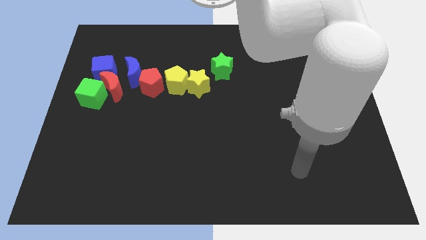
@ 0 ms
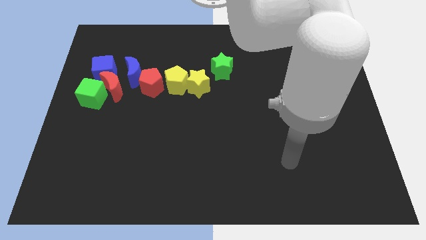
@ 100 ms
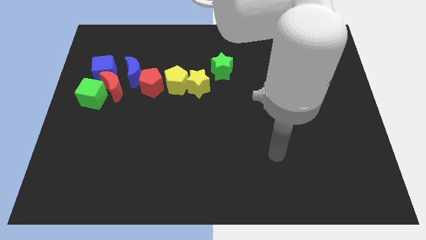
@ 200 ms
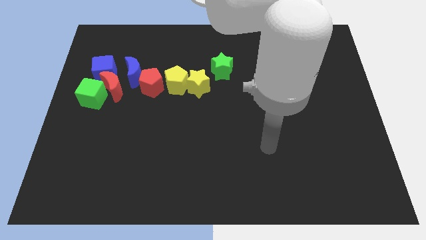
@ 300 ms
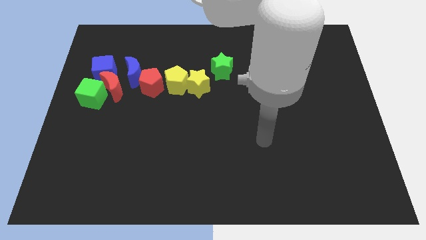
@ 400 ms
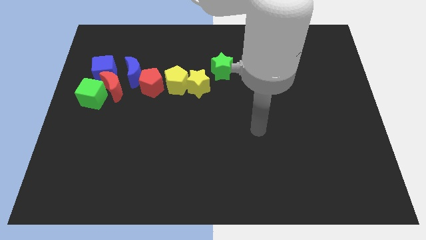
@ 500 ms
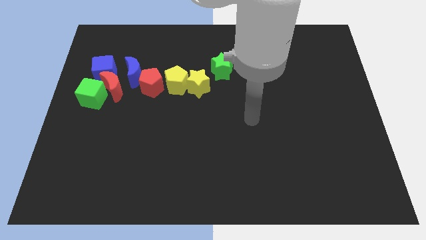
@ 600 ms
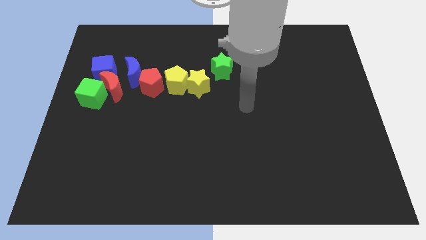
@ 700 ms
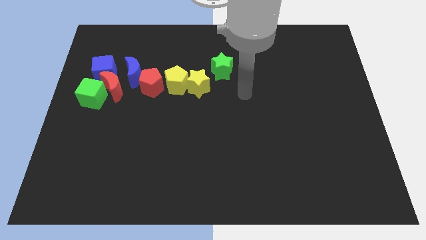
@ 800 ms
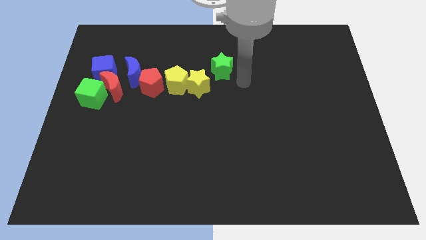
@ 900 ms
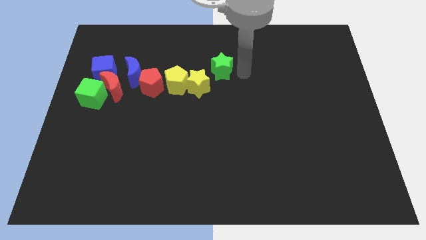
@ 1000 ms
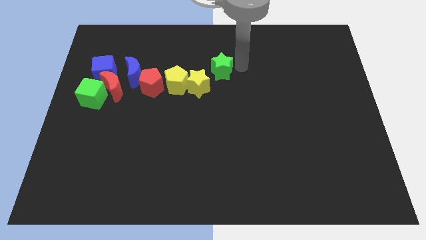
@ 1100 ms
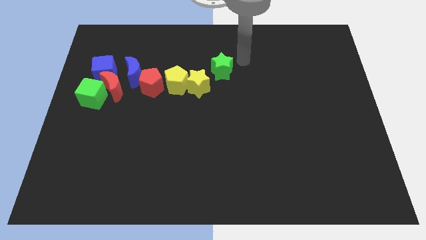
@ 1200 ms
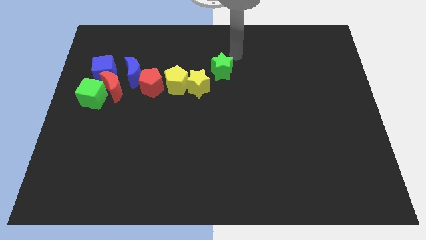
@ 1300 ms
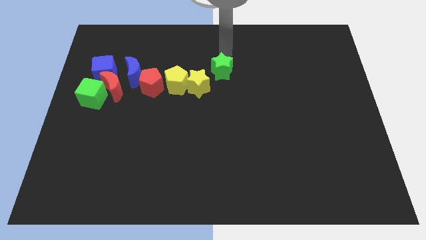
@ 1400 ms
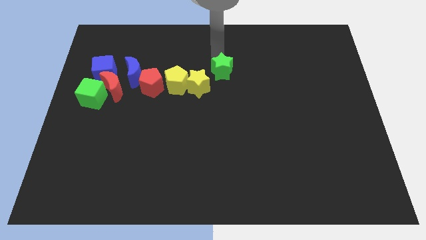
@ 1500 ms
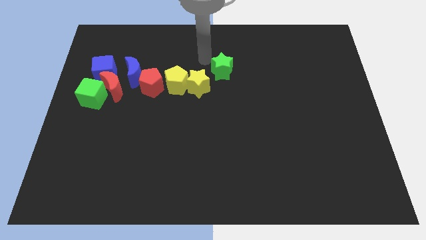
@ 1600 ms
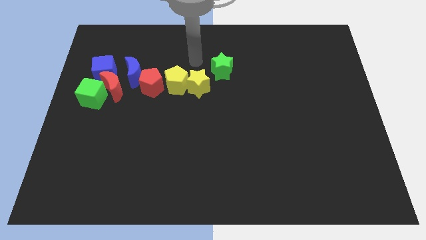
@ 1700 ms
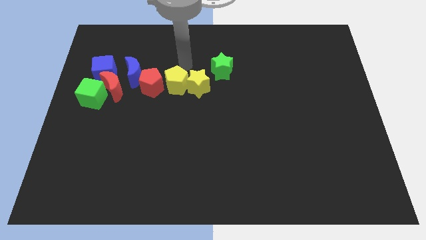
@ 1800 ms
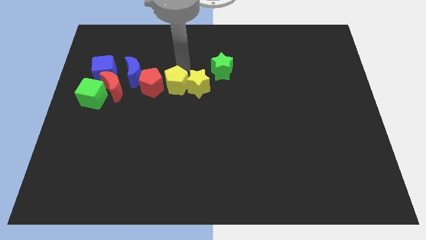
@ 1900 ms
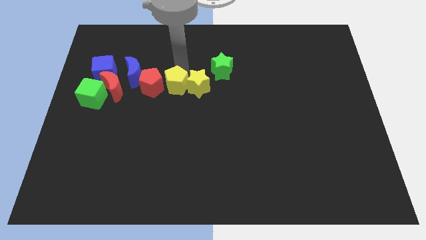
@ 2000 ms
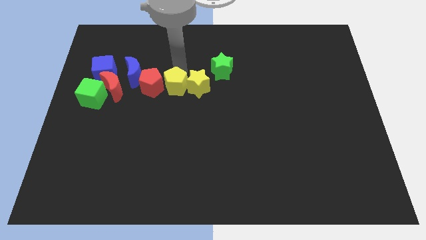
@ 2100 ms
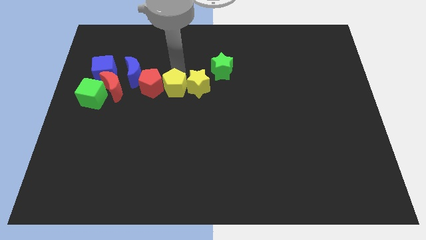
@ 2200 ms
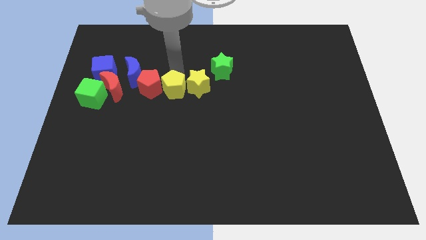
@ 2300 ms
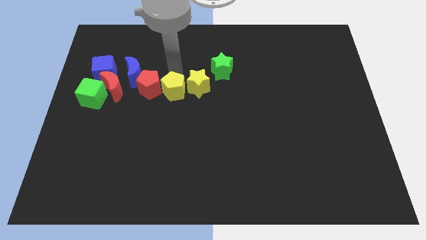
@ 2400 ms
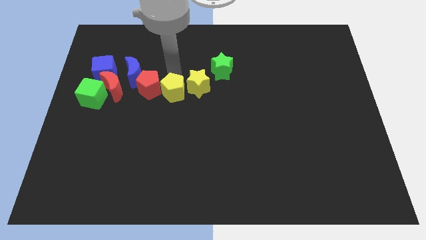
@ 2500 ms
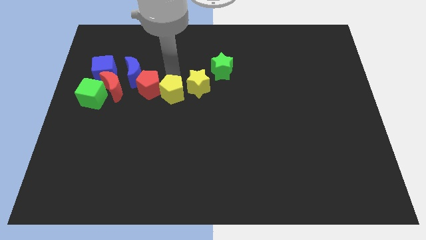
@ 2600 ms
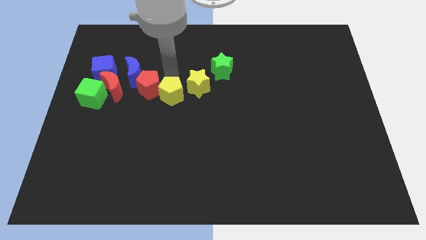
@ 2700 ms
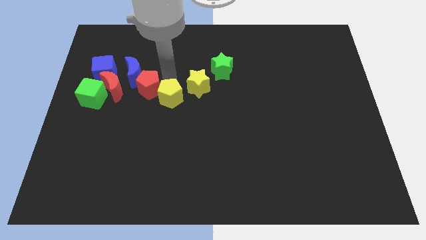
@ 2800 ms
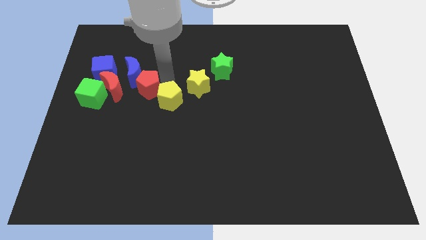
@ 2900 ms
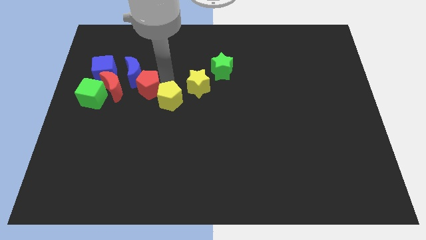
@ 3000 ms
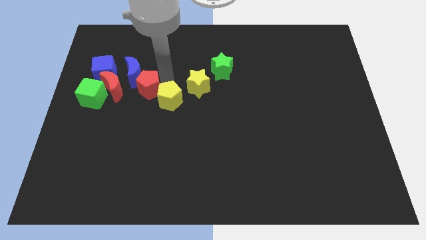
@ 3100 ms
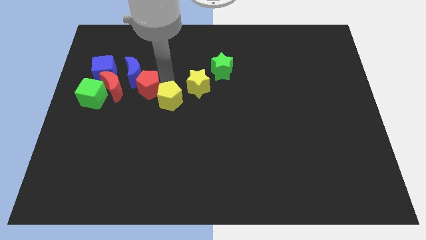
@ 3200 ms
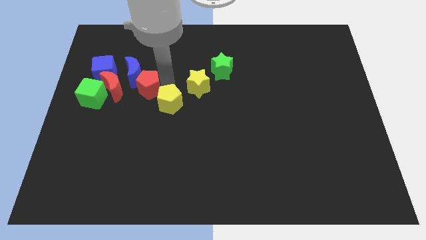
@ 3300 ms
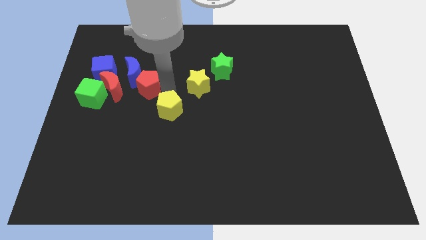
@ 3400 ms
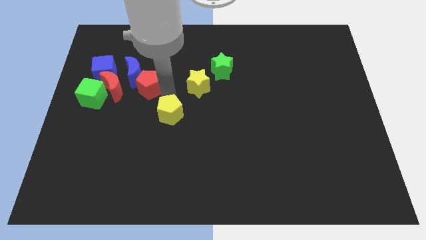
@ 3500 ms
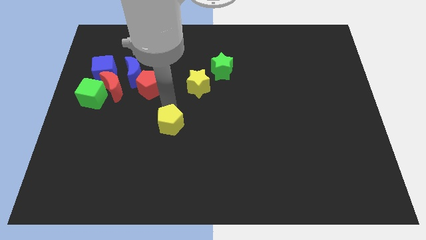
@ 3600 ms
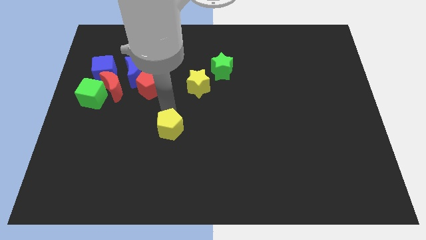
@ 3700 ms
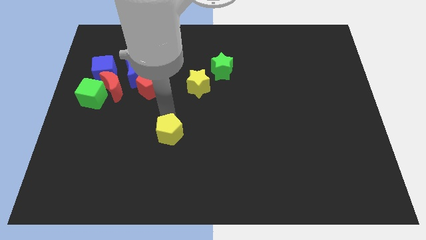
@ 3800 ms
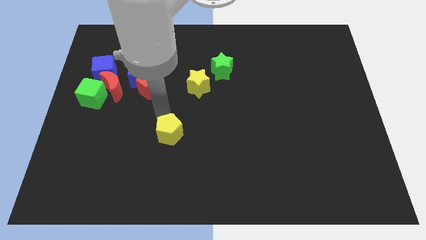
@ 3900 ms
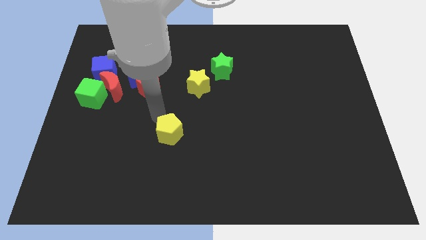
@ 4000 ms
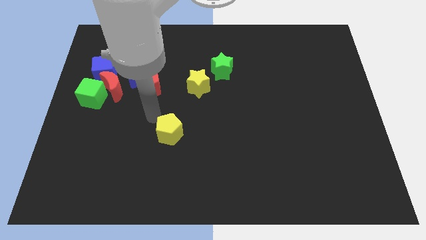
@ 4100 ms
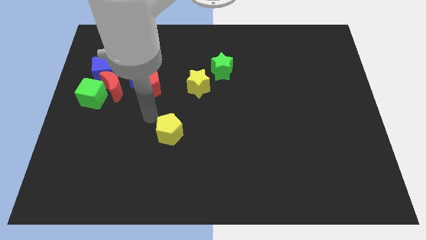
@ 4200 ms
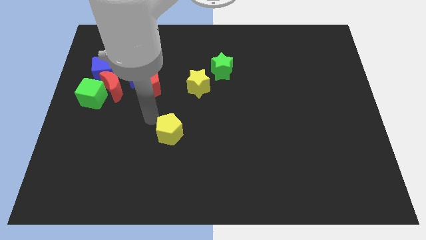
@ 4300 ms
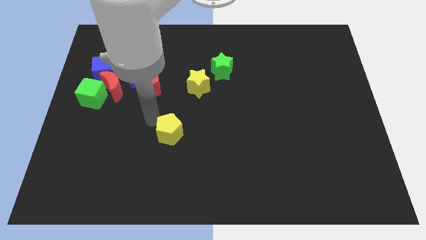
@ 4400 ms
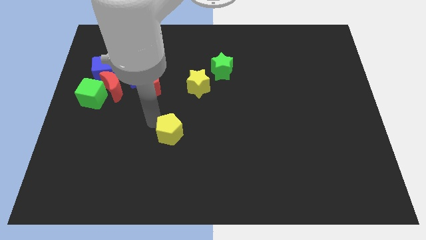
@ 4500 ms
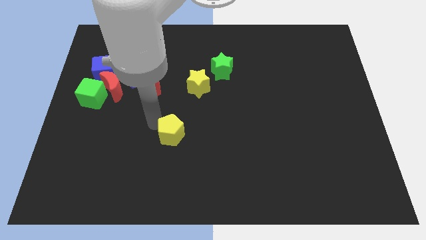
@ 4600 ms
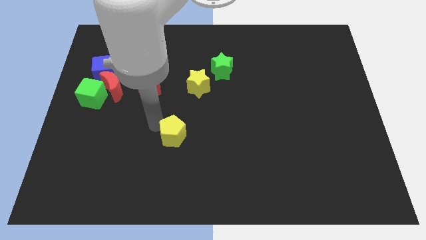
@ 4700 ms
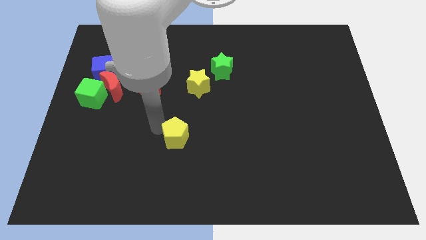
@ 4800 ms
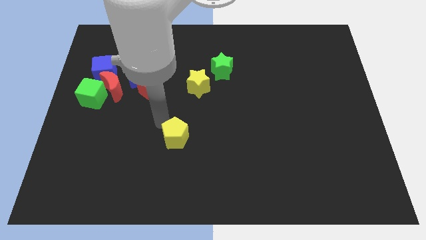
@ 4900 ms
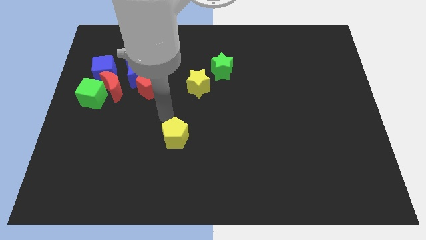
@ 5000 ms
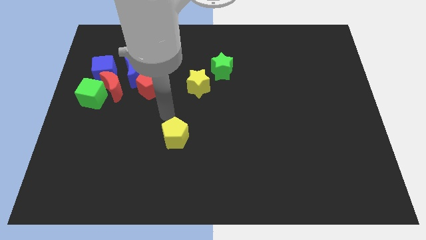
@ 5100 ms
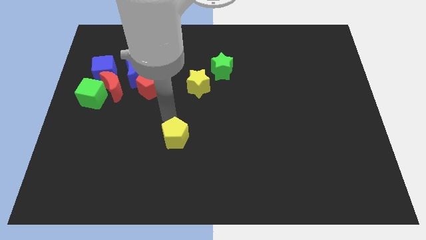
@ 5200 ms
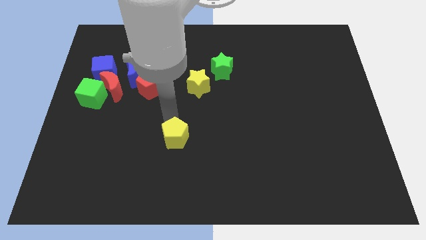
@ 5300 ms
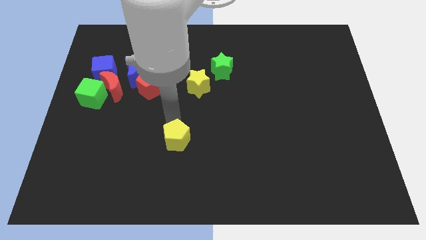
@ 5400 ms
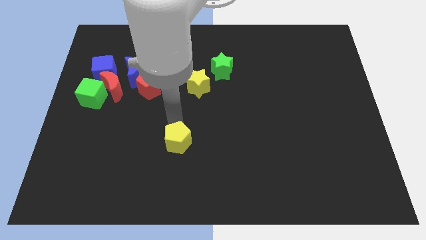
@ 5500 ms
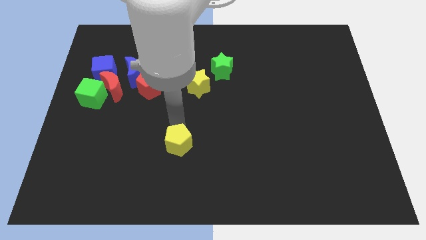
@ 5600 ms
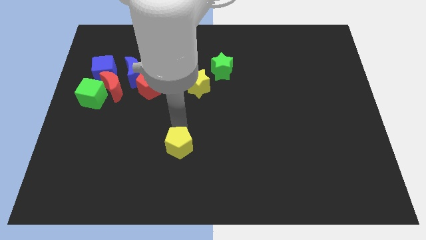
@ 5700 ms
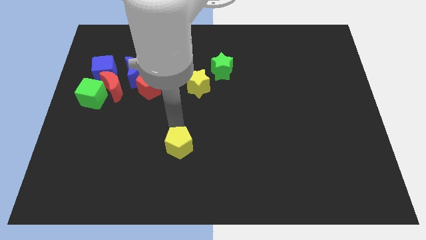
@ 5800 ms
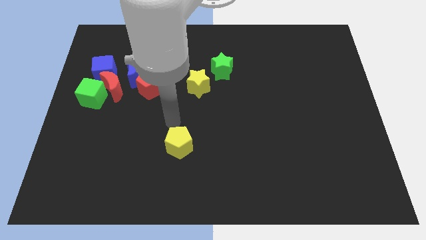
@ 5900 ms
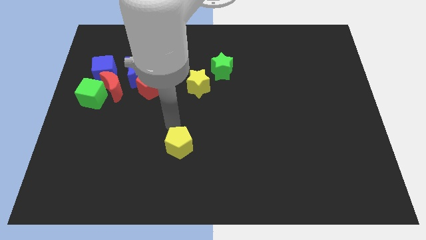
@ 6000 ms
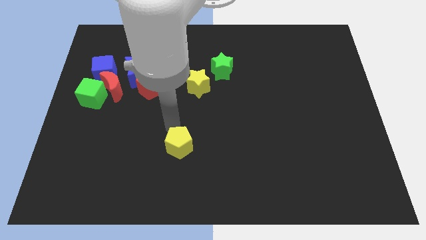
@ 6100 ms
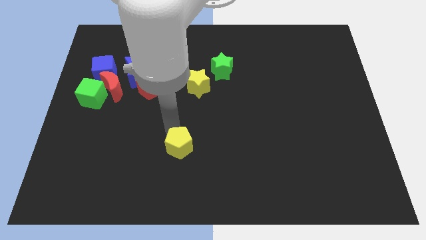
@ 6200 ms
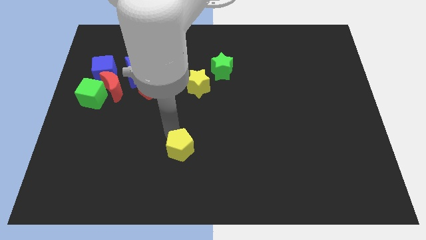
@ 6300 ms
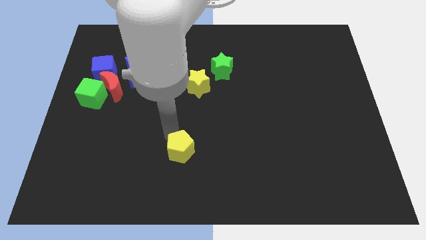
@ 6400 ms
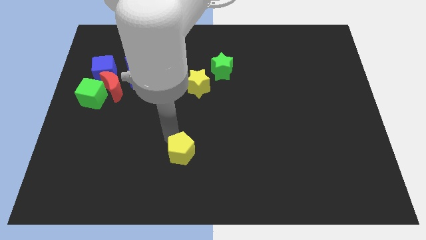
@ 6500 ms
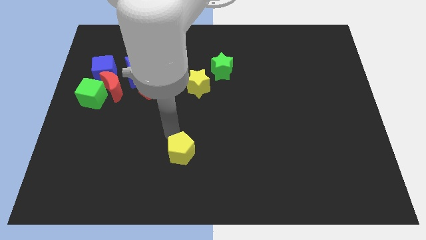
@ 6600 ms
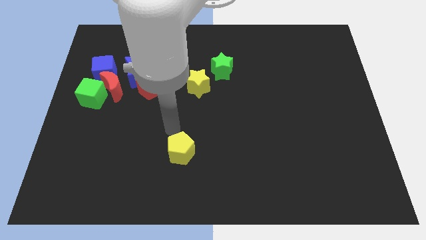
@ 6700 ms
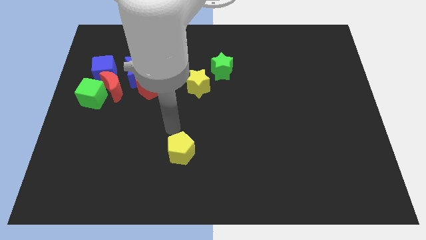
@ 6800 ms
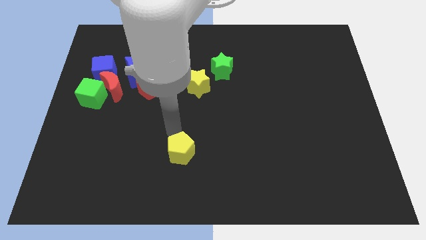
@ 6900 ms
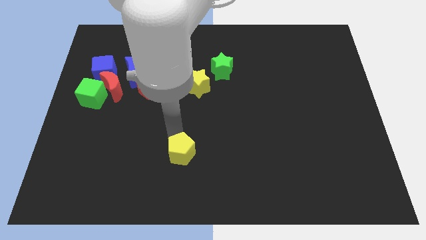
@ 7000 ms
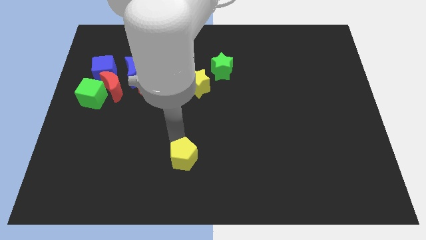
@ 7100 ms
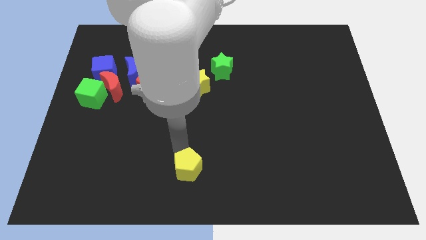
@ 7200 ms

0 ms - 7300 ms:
push the yellow pentagon to the bottom
